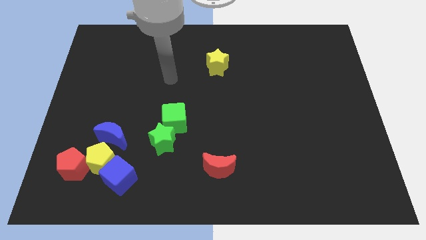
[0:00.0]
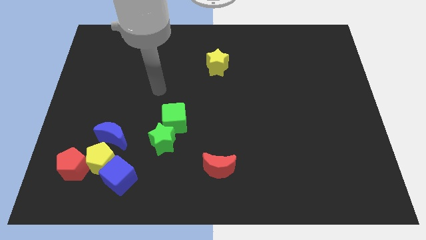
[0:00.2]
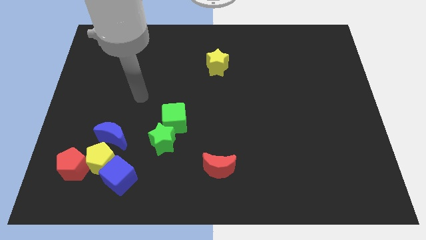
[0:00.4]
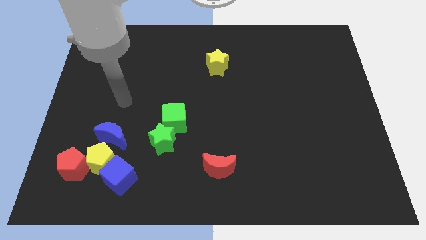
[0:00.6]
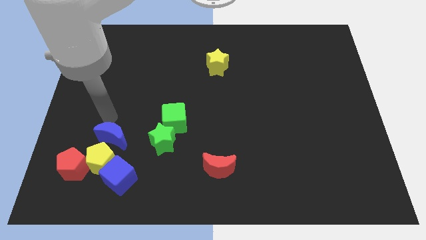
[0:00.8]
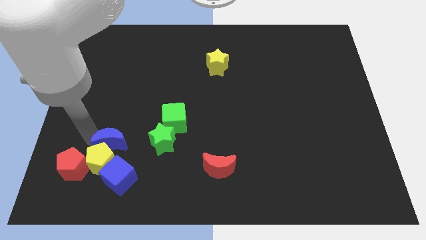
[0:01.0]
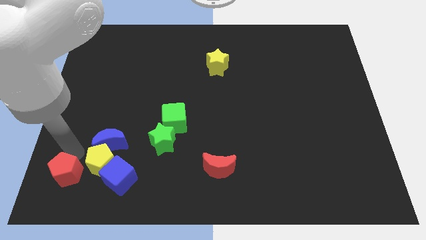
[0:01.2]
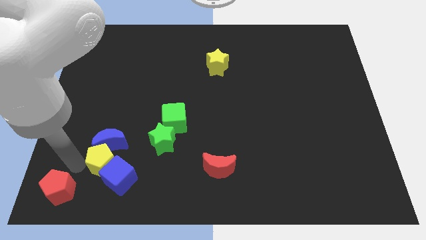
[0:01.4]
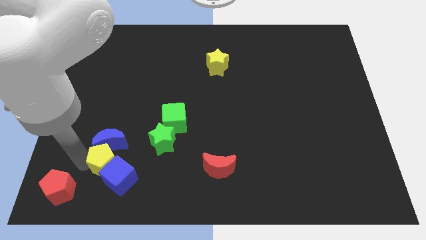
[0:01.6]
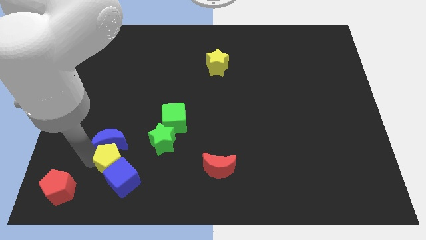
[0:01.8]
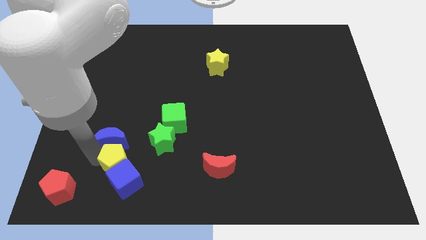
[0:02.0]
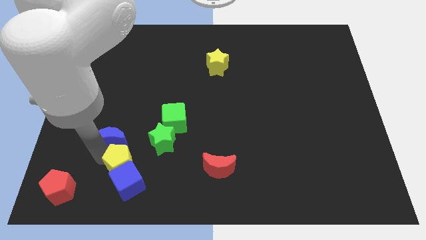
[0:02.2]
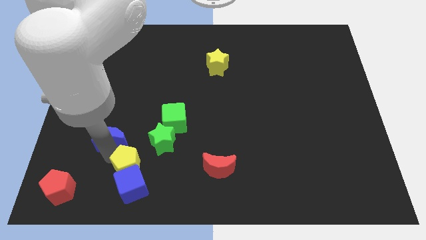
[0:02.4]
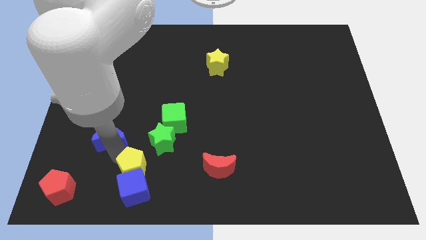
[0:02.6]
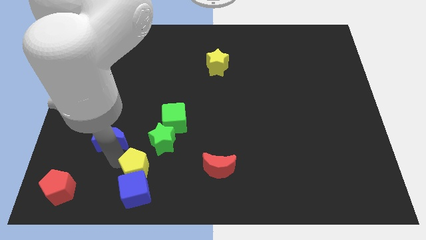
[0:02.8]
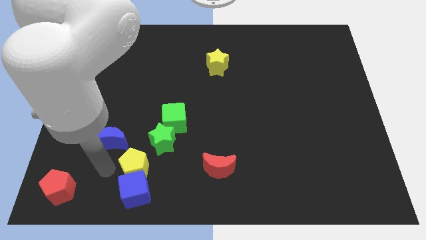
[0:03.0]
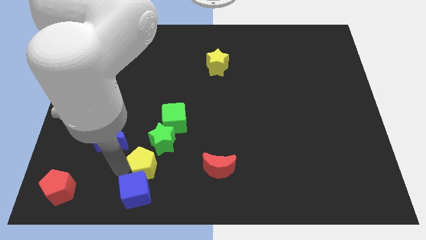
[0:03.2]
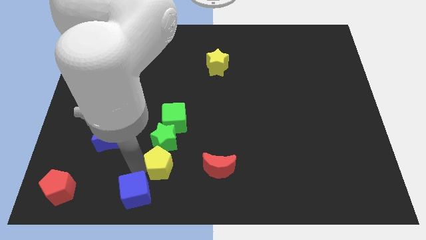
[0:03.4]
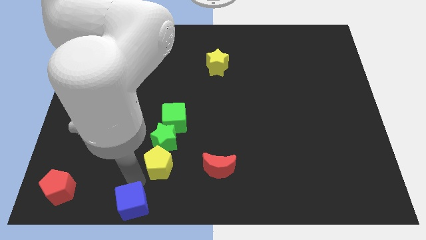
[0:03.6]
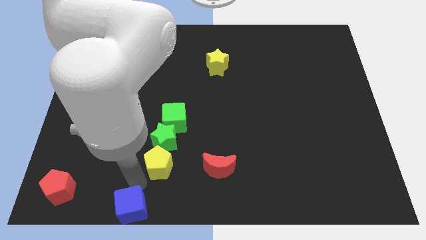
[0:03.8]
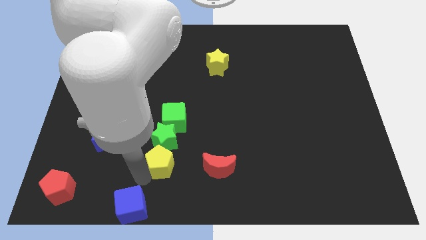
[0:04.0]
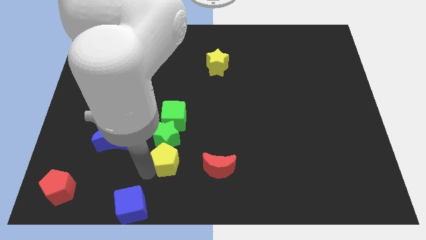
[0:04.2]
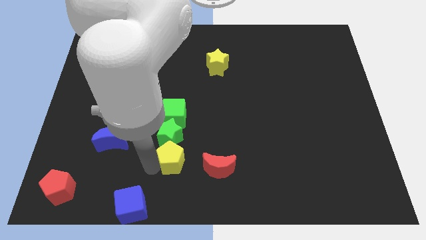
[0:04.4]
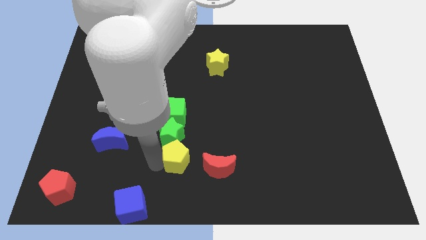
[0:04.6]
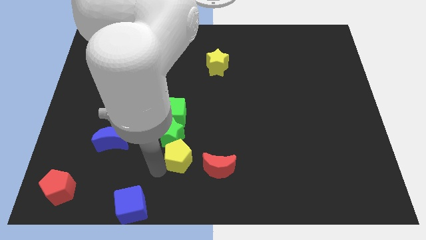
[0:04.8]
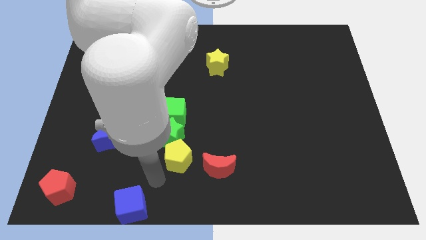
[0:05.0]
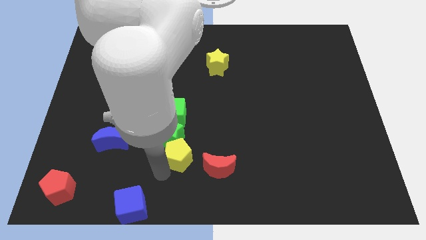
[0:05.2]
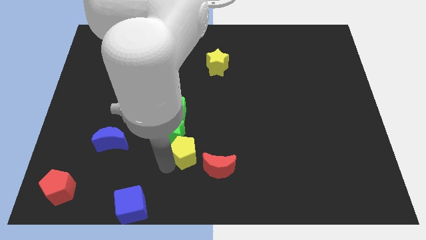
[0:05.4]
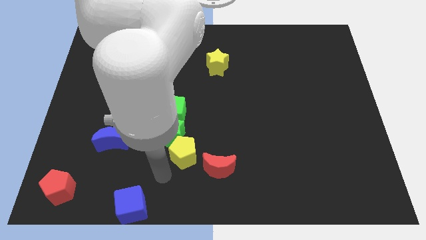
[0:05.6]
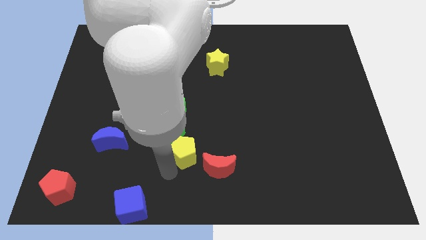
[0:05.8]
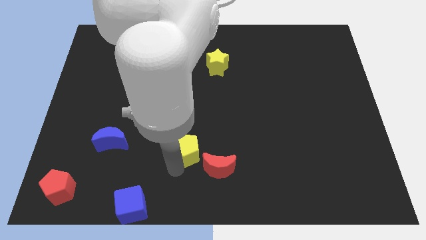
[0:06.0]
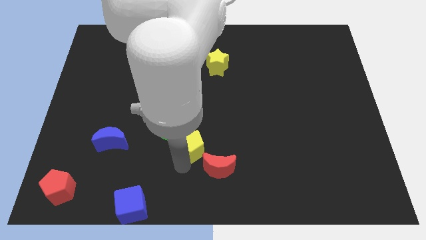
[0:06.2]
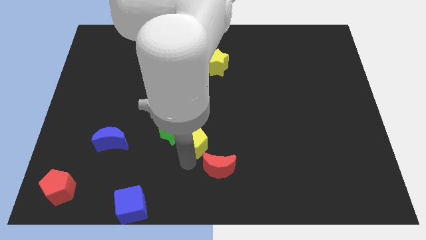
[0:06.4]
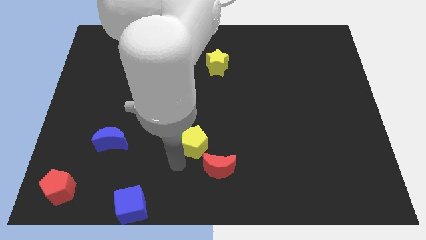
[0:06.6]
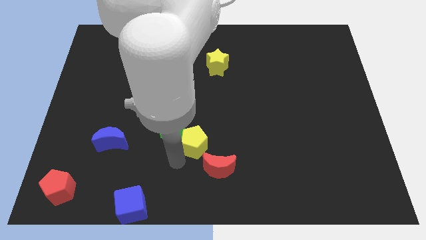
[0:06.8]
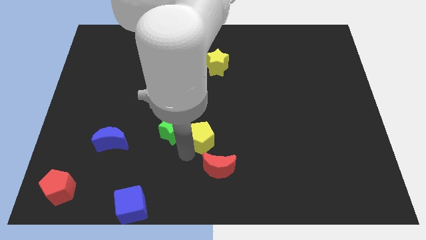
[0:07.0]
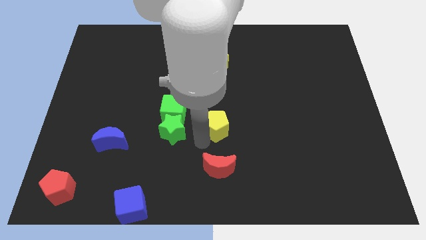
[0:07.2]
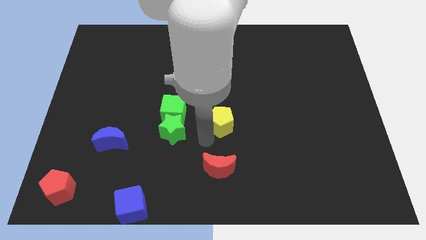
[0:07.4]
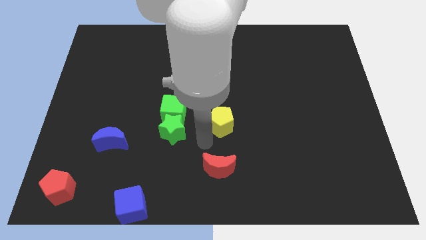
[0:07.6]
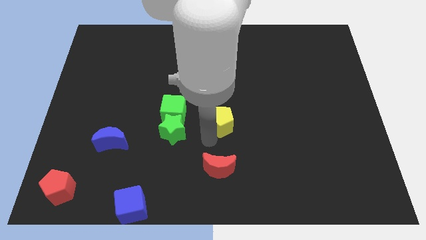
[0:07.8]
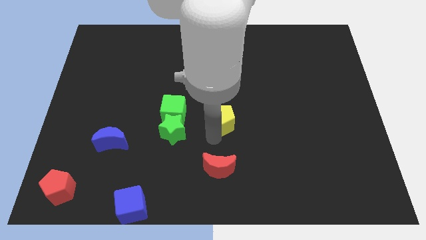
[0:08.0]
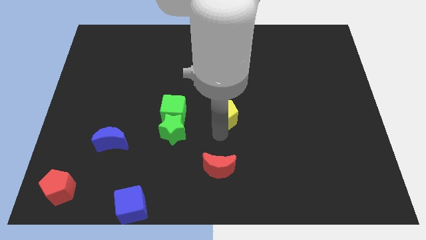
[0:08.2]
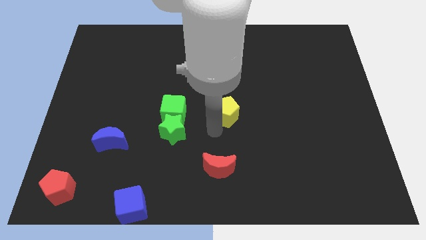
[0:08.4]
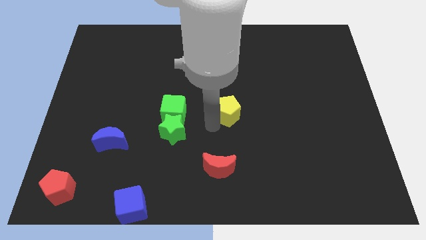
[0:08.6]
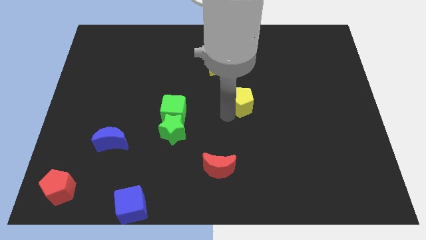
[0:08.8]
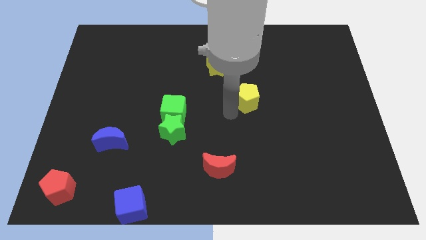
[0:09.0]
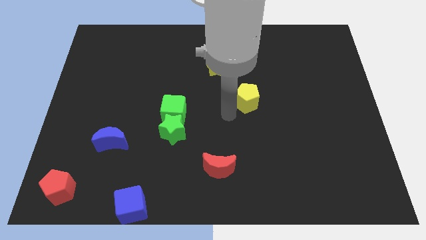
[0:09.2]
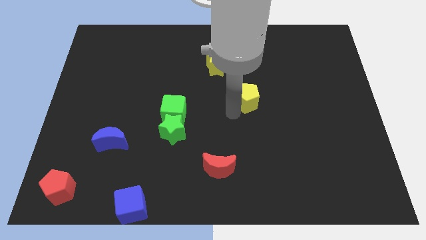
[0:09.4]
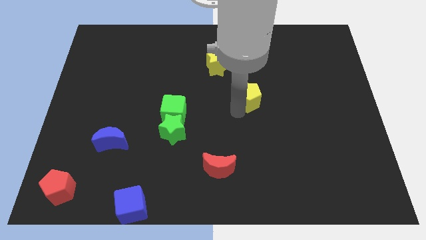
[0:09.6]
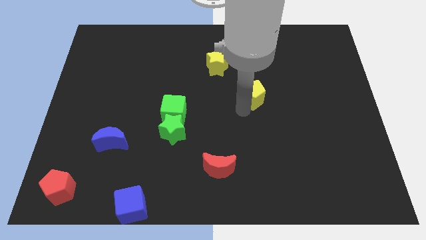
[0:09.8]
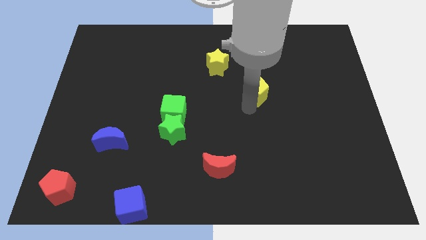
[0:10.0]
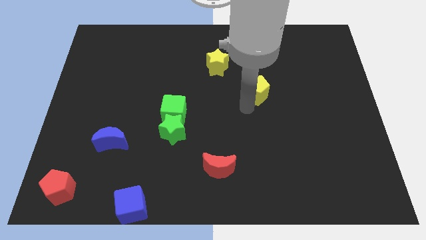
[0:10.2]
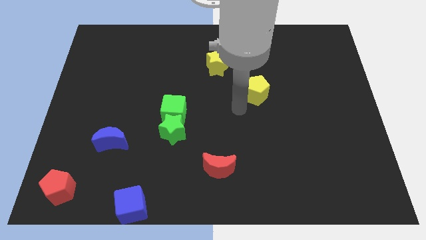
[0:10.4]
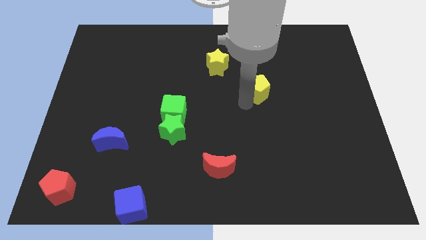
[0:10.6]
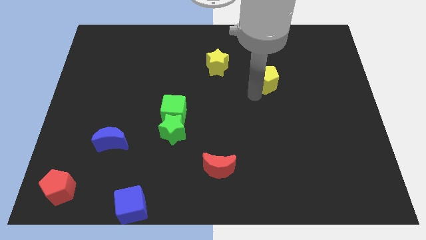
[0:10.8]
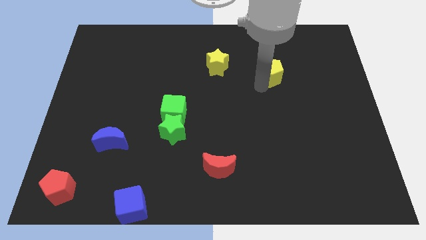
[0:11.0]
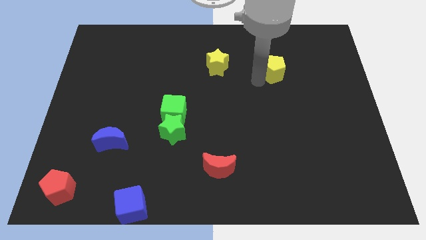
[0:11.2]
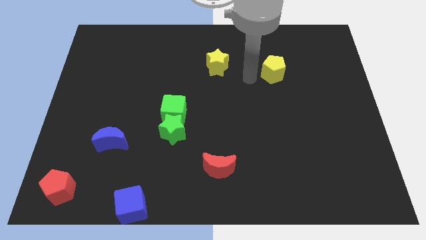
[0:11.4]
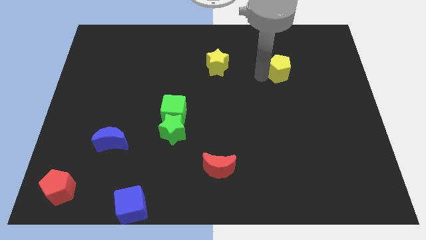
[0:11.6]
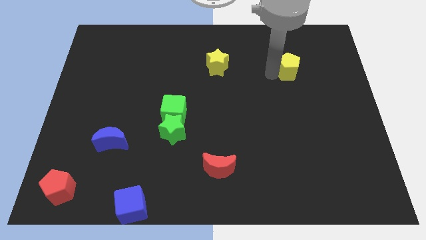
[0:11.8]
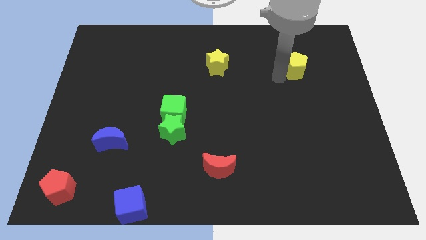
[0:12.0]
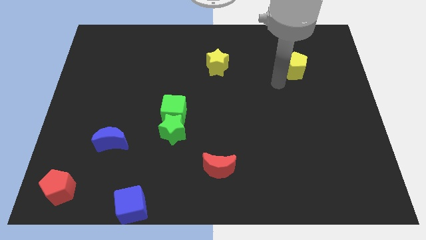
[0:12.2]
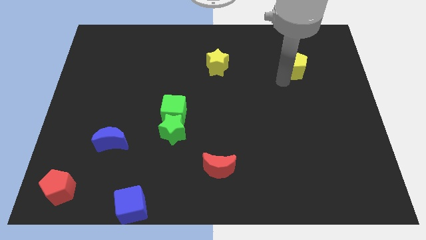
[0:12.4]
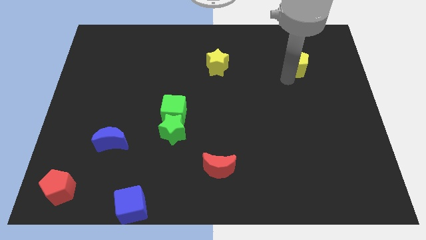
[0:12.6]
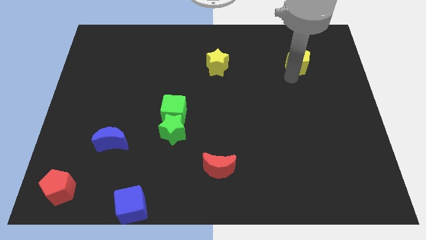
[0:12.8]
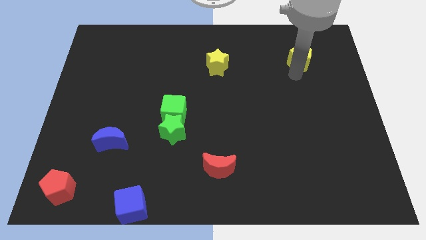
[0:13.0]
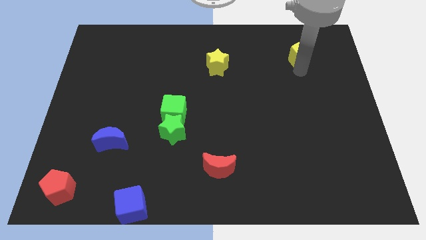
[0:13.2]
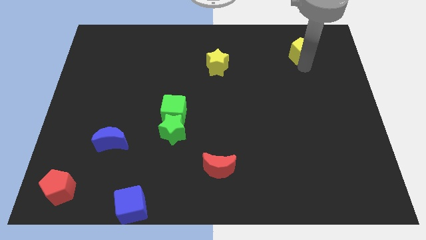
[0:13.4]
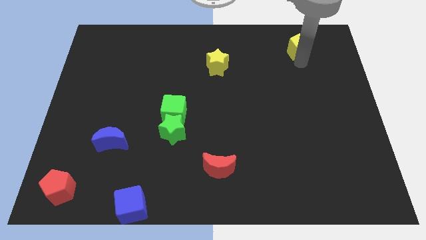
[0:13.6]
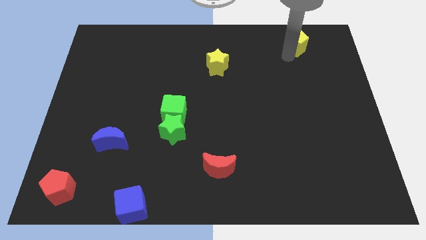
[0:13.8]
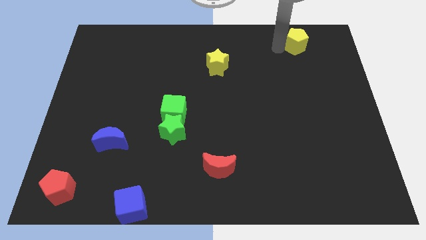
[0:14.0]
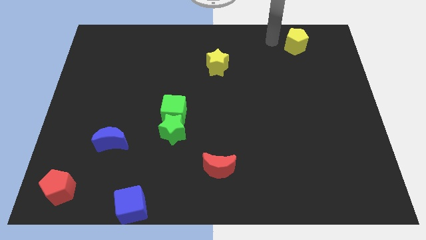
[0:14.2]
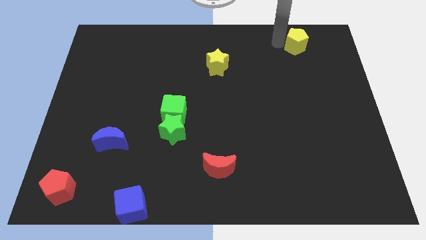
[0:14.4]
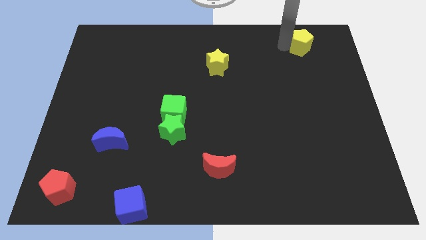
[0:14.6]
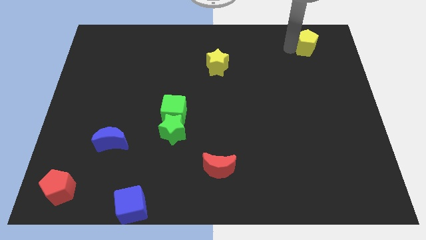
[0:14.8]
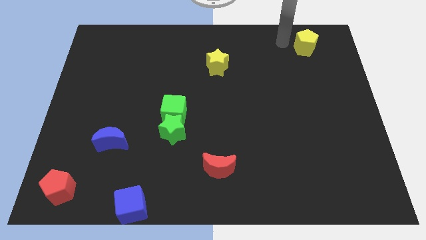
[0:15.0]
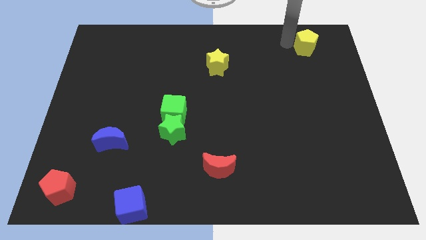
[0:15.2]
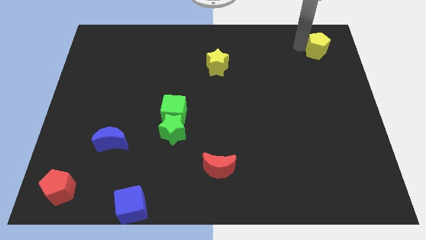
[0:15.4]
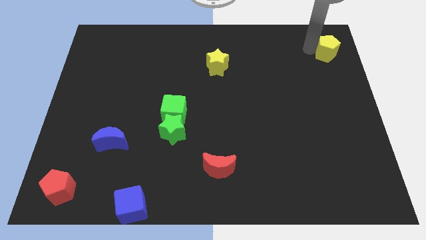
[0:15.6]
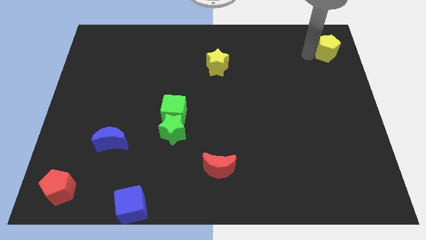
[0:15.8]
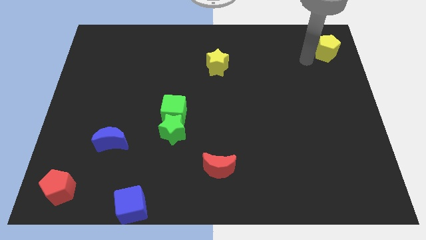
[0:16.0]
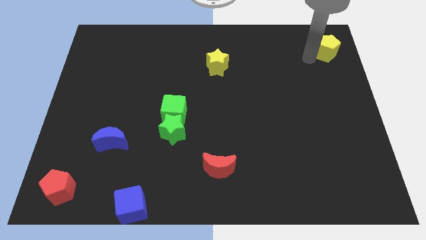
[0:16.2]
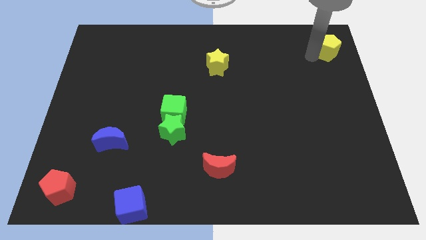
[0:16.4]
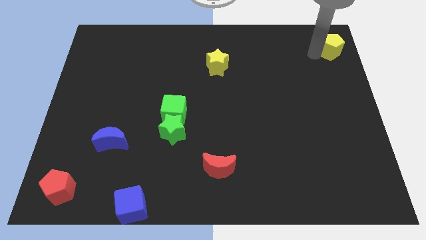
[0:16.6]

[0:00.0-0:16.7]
push the yellow pentagon to the top right
